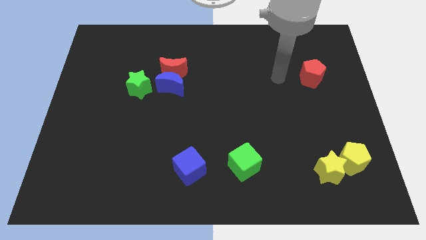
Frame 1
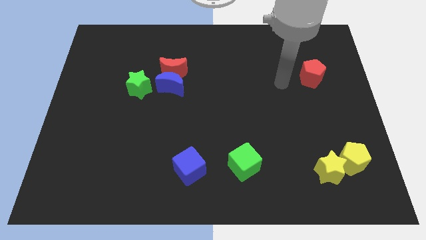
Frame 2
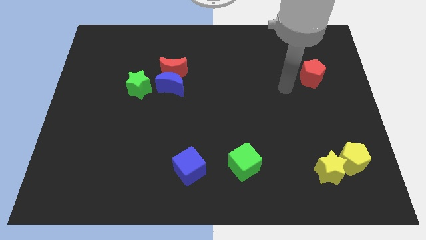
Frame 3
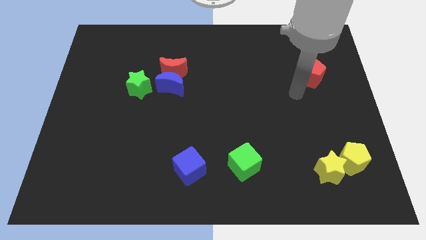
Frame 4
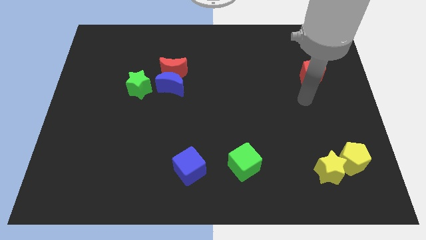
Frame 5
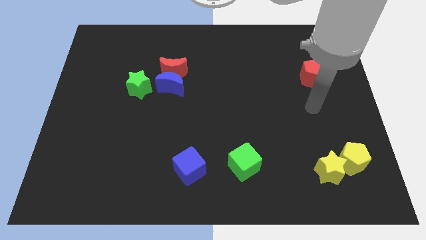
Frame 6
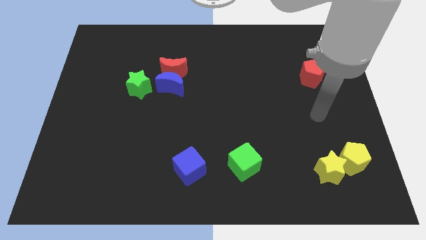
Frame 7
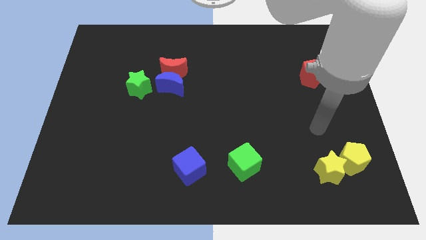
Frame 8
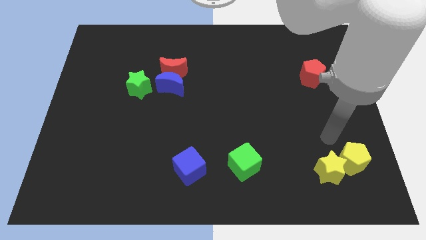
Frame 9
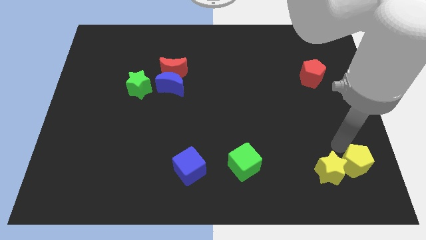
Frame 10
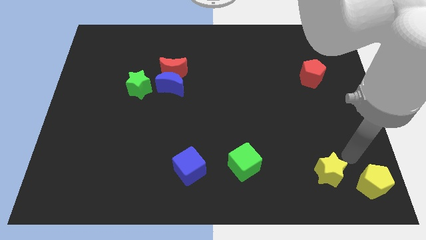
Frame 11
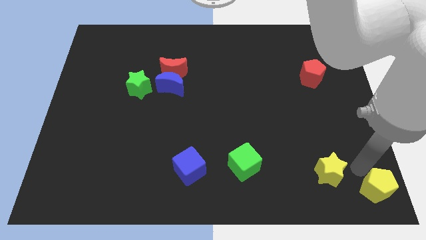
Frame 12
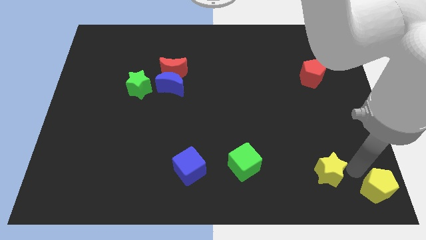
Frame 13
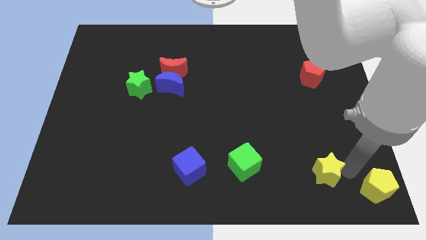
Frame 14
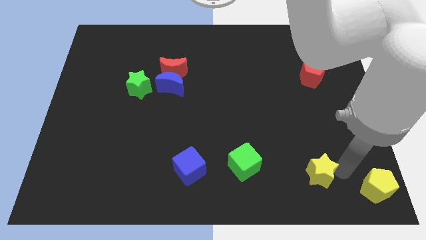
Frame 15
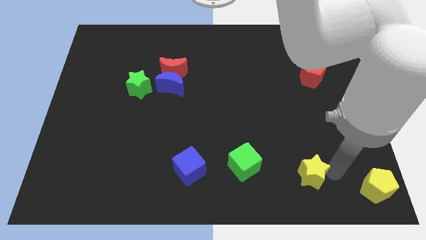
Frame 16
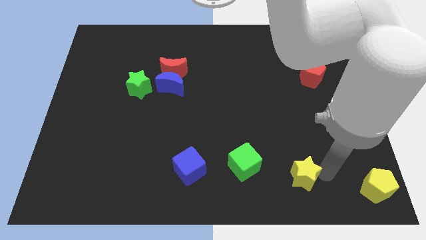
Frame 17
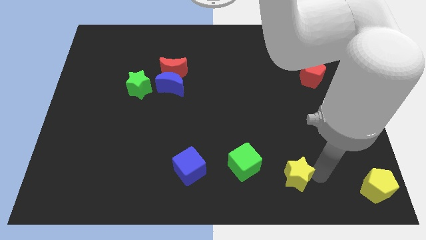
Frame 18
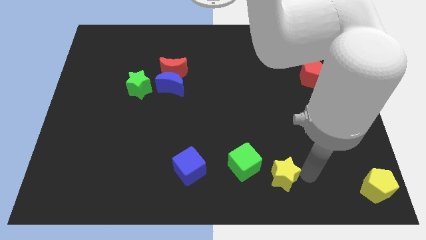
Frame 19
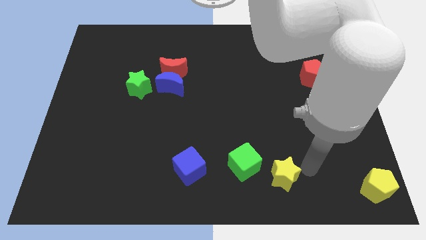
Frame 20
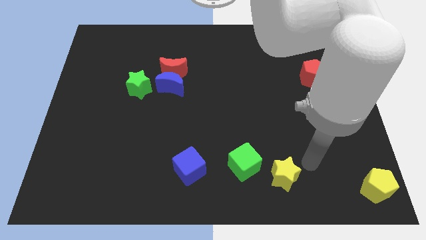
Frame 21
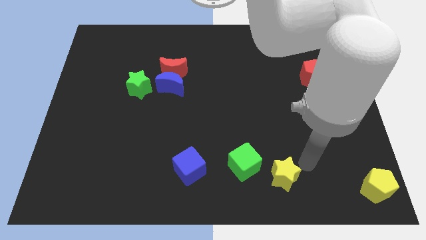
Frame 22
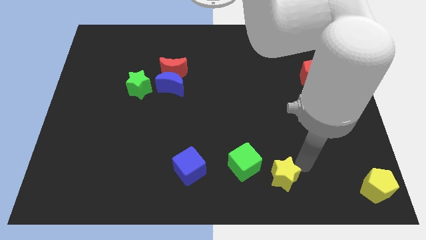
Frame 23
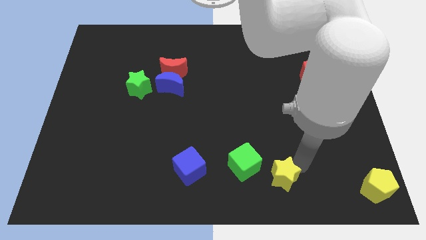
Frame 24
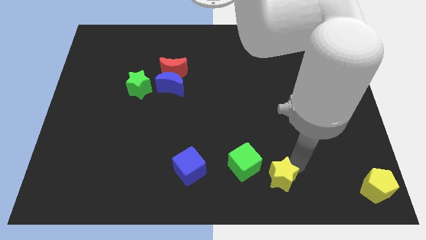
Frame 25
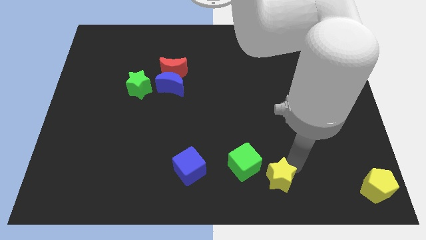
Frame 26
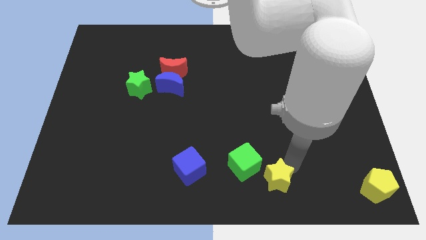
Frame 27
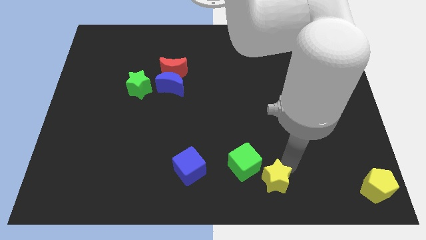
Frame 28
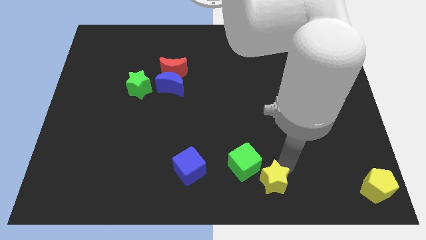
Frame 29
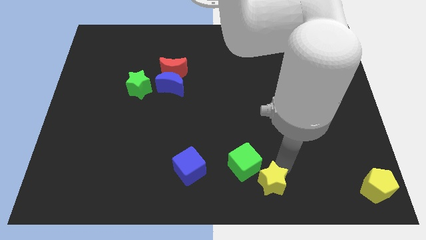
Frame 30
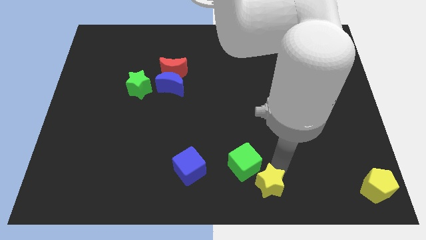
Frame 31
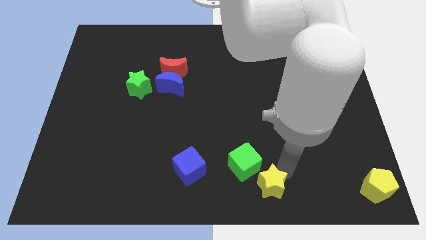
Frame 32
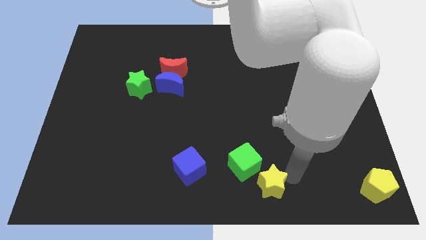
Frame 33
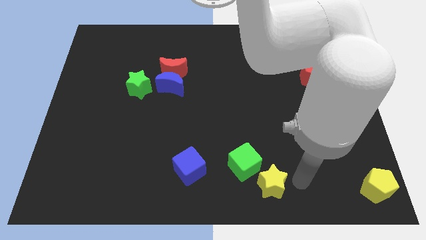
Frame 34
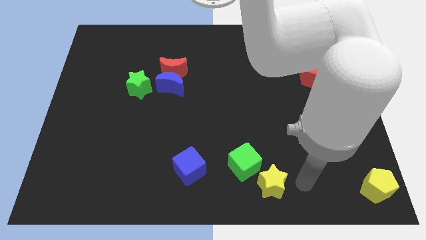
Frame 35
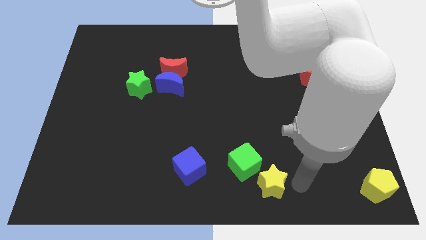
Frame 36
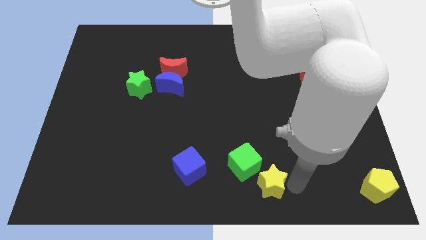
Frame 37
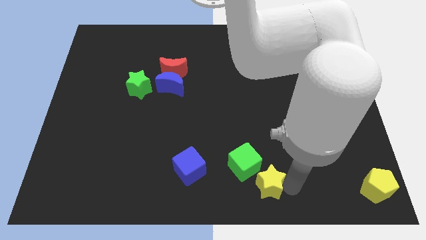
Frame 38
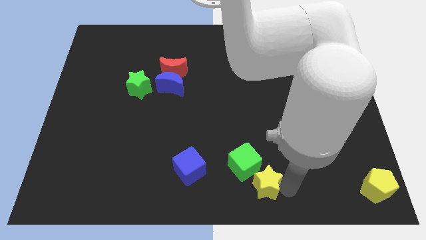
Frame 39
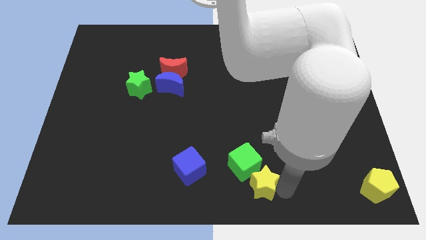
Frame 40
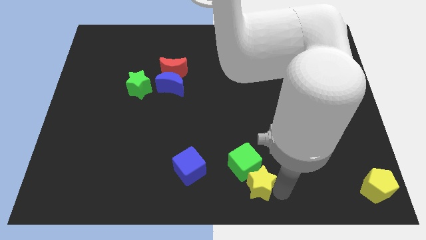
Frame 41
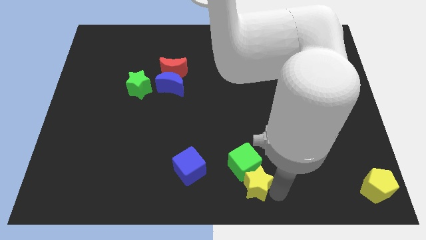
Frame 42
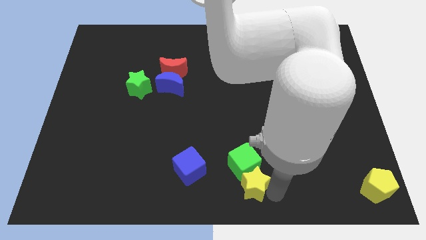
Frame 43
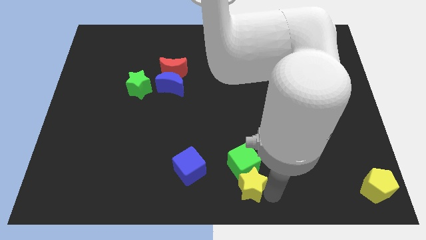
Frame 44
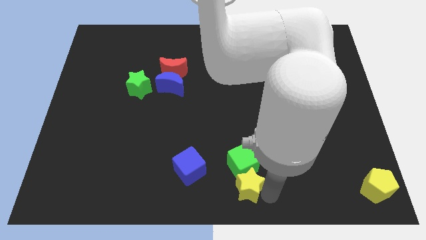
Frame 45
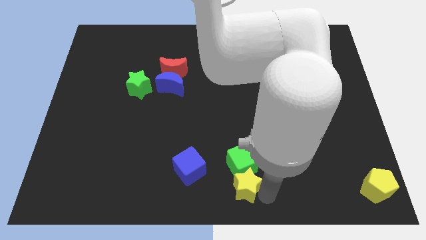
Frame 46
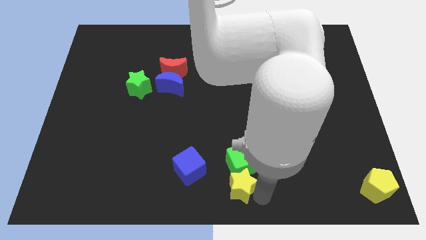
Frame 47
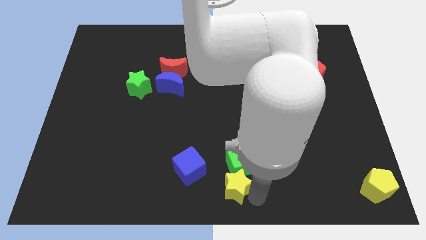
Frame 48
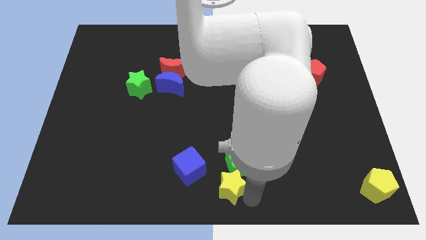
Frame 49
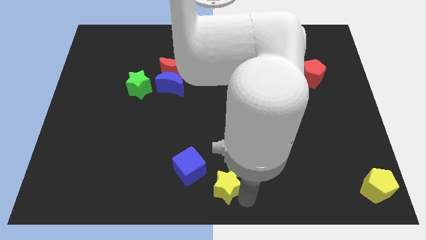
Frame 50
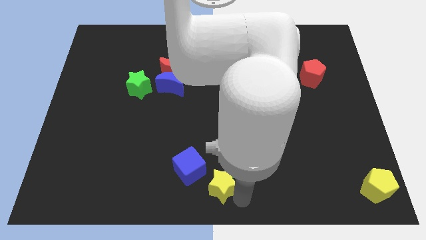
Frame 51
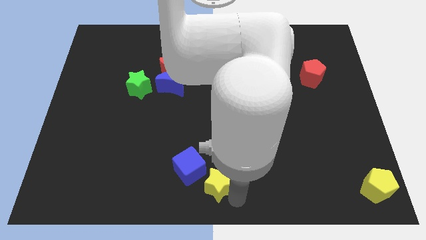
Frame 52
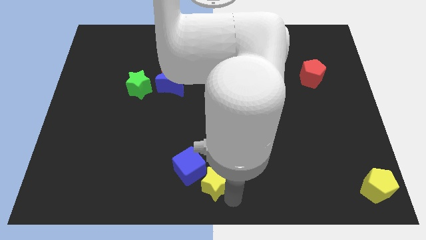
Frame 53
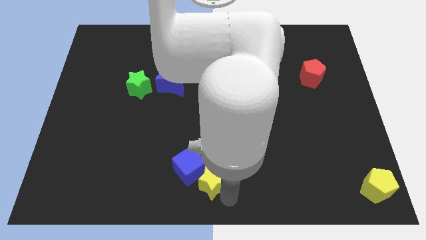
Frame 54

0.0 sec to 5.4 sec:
put the yellow star to the blue cube

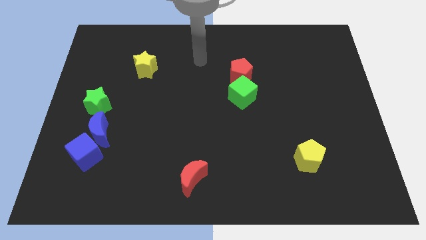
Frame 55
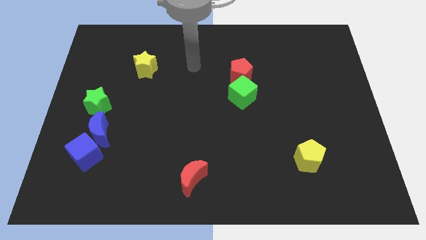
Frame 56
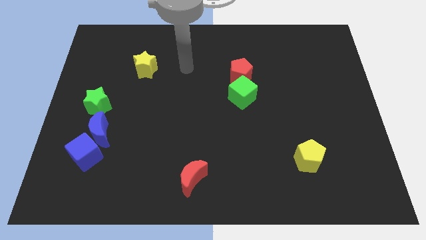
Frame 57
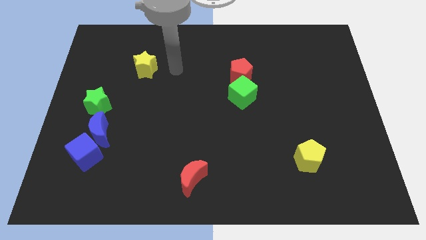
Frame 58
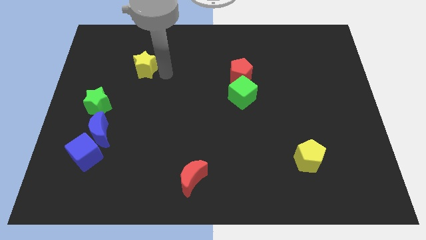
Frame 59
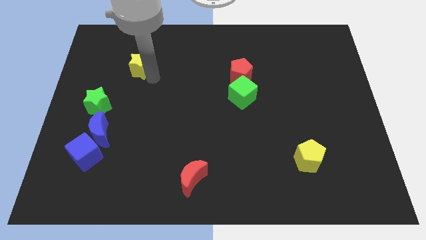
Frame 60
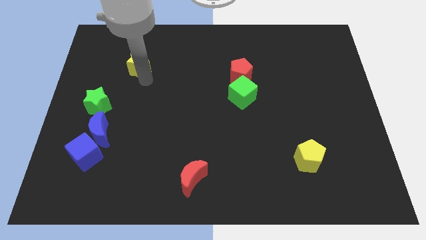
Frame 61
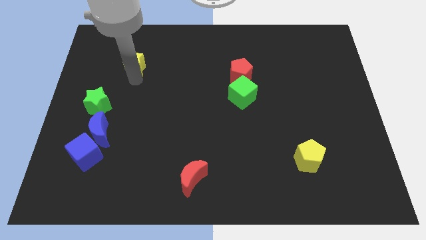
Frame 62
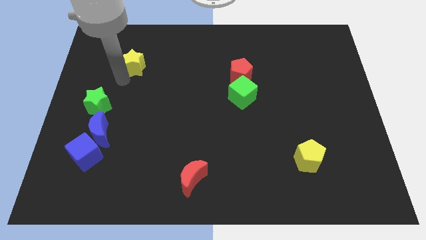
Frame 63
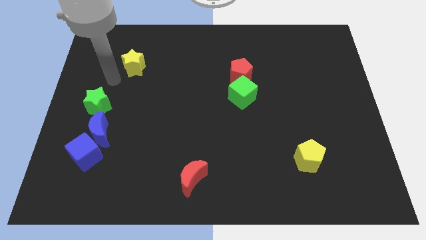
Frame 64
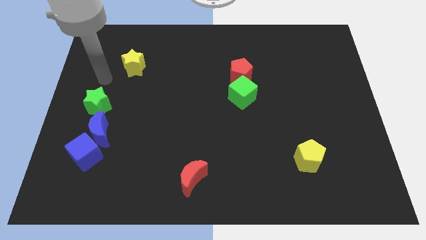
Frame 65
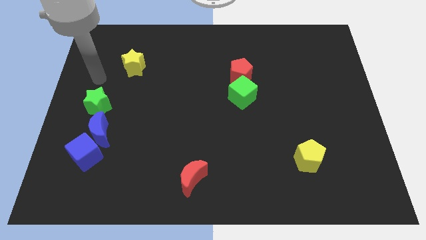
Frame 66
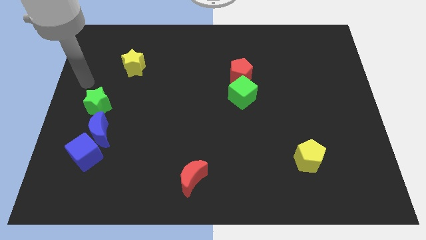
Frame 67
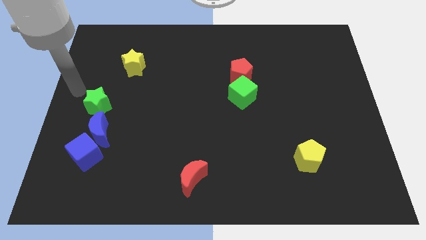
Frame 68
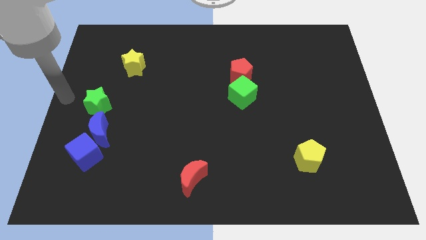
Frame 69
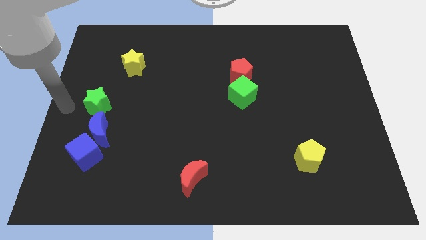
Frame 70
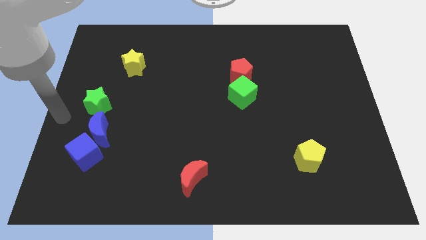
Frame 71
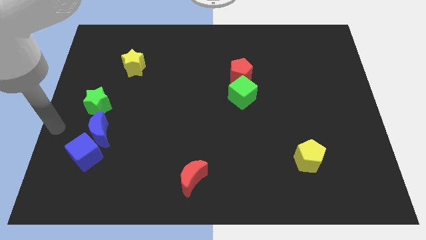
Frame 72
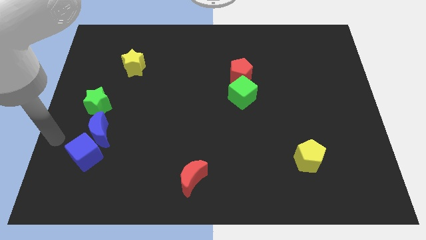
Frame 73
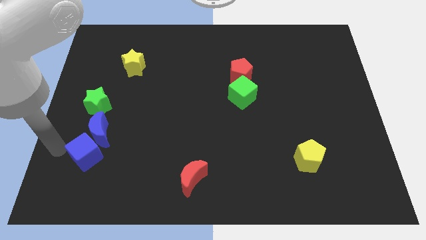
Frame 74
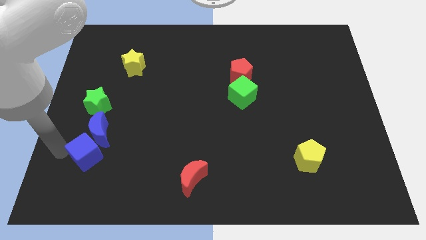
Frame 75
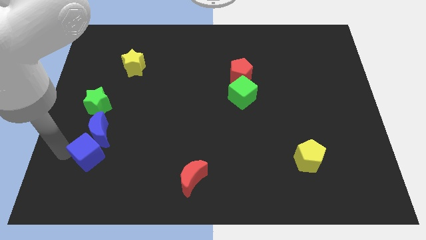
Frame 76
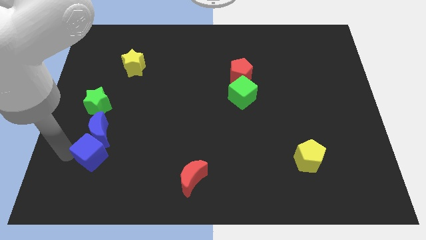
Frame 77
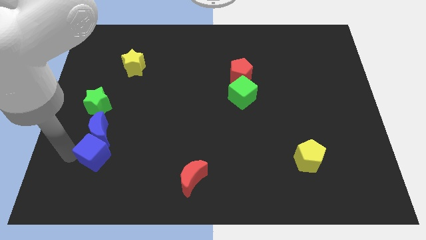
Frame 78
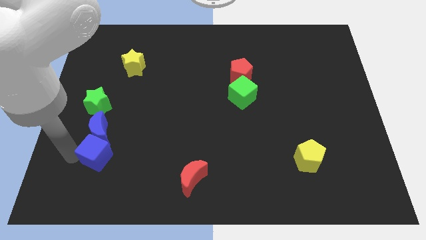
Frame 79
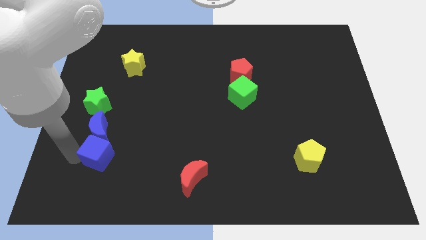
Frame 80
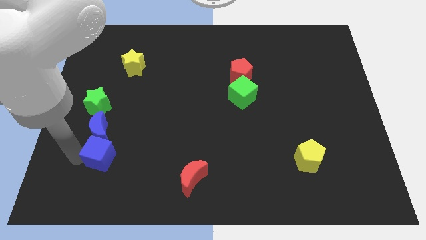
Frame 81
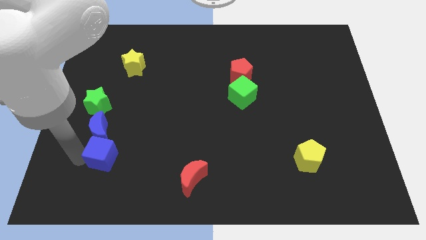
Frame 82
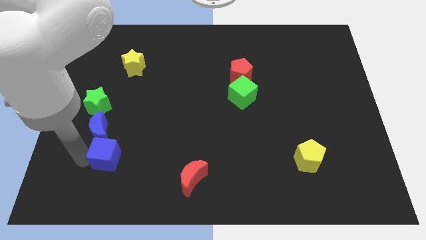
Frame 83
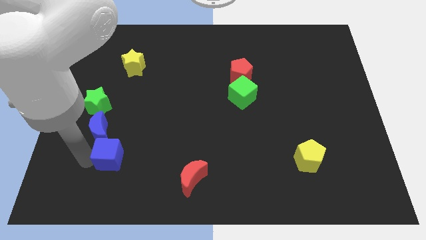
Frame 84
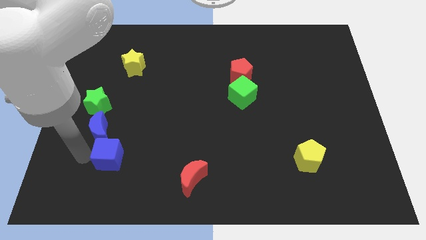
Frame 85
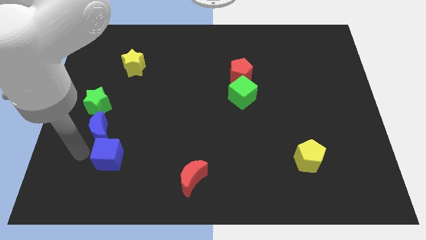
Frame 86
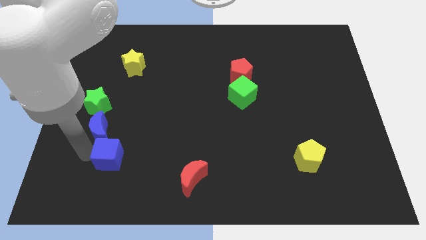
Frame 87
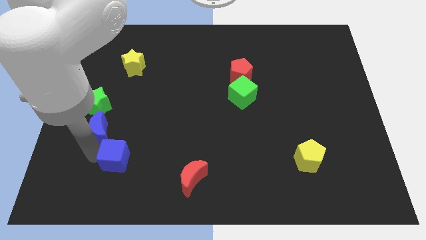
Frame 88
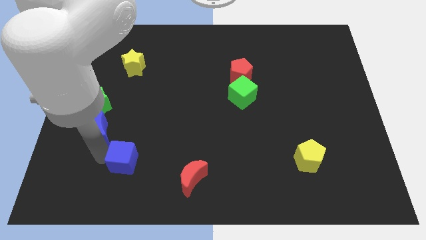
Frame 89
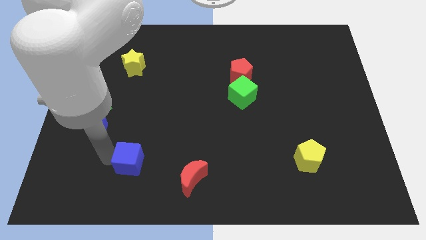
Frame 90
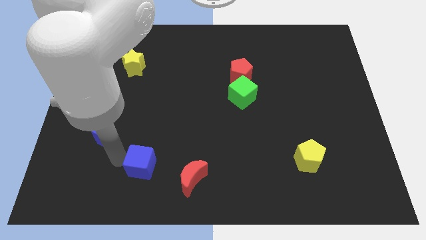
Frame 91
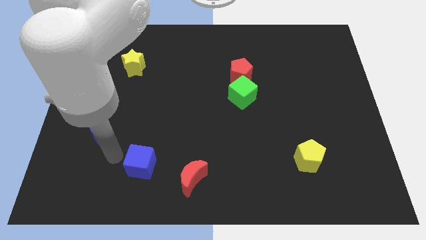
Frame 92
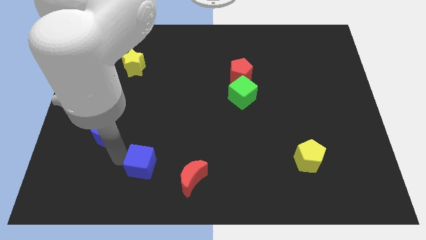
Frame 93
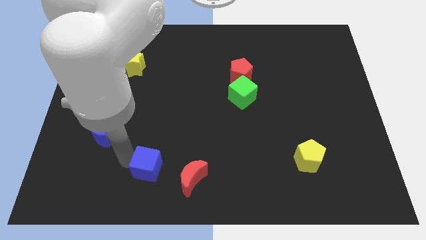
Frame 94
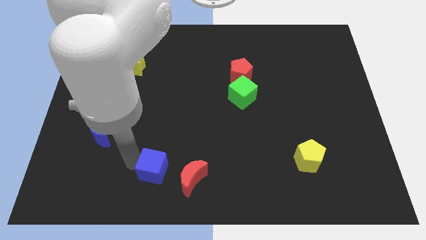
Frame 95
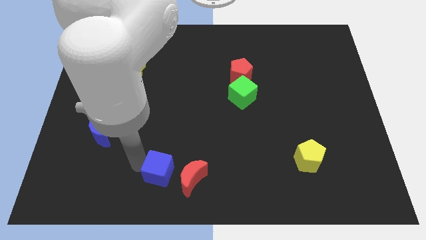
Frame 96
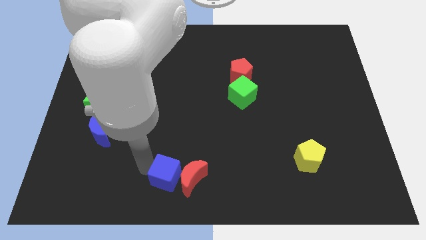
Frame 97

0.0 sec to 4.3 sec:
move the blue cube close to the red moon
